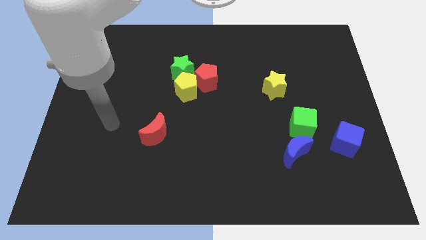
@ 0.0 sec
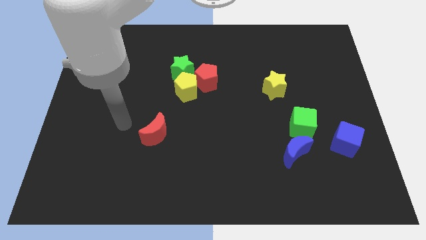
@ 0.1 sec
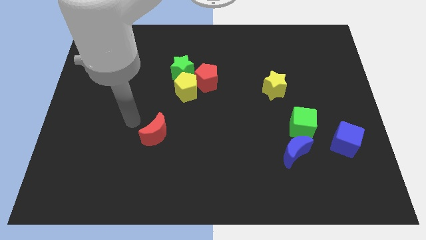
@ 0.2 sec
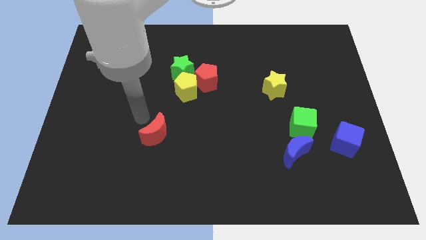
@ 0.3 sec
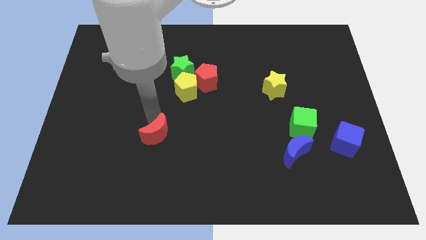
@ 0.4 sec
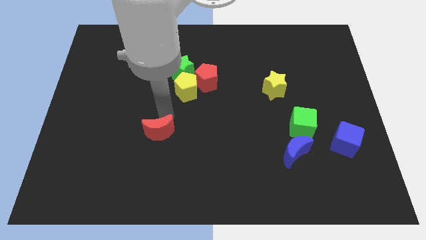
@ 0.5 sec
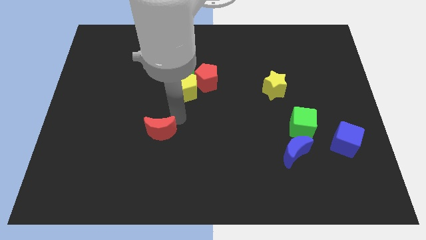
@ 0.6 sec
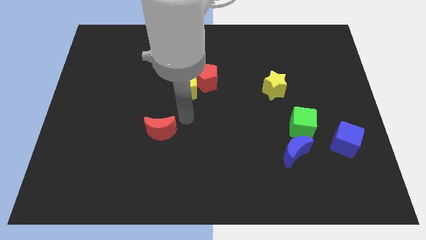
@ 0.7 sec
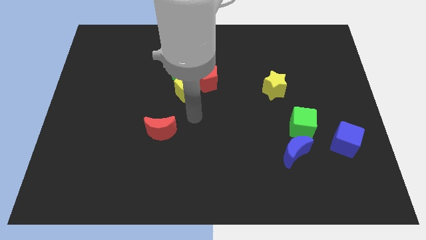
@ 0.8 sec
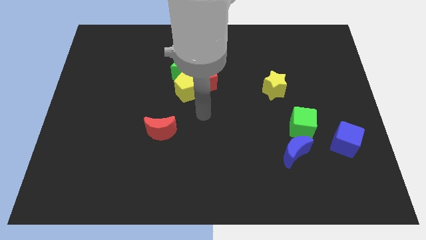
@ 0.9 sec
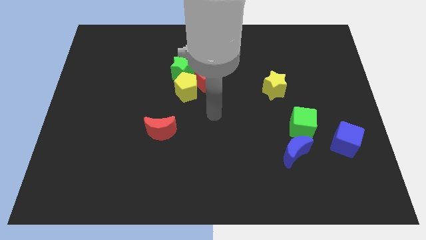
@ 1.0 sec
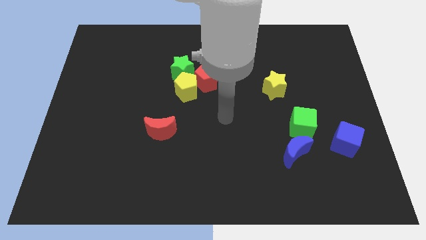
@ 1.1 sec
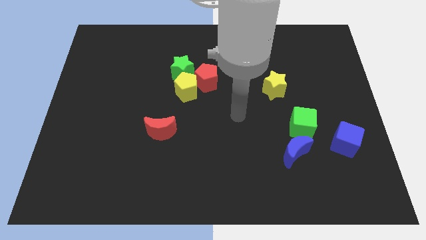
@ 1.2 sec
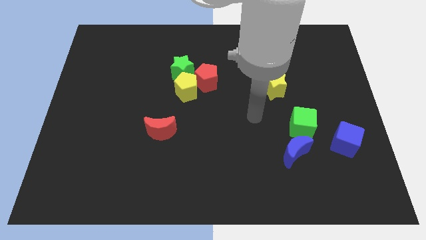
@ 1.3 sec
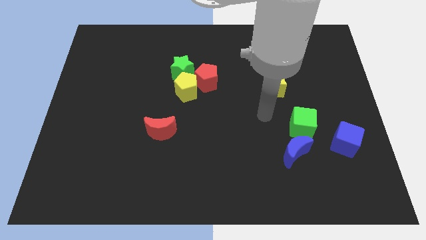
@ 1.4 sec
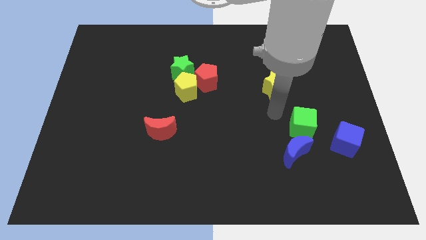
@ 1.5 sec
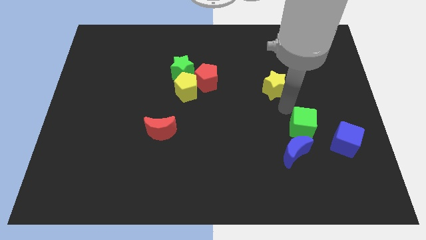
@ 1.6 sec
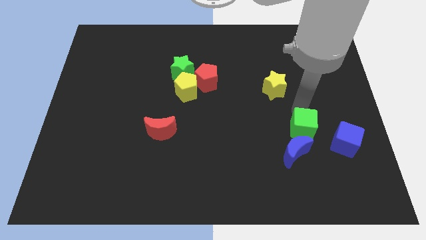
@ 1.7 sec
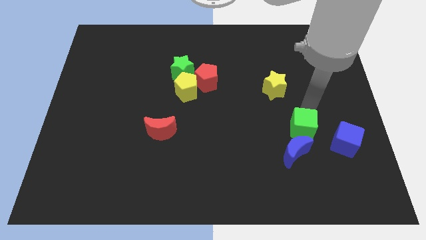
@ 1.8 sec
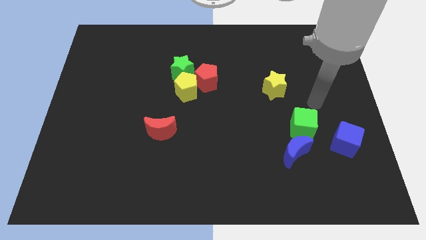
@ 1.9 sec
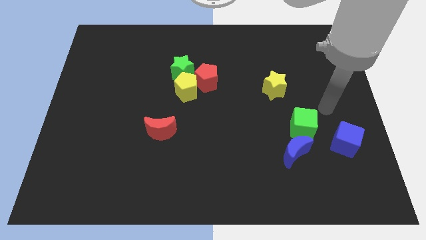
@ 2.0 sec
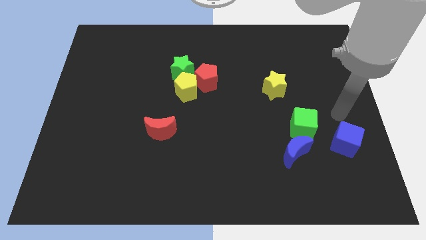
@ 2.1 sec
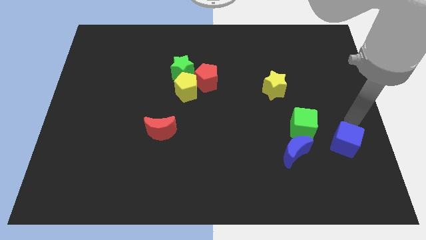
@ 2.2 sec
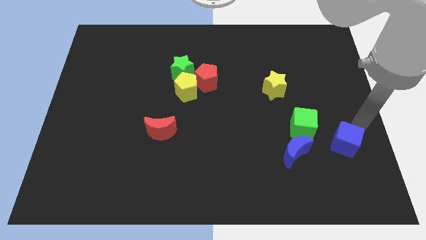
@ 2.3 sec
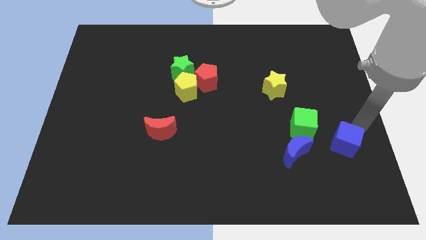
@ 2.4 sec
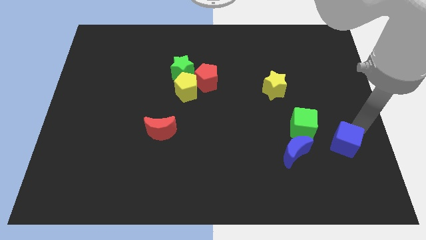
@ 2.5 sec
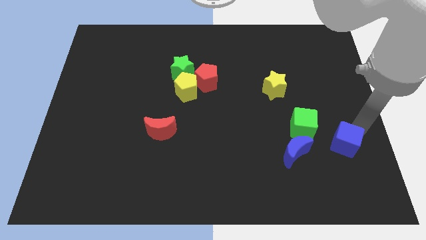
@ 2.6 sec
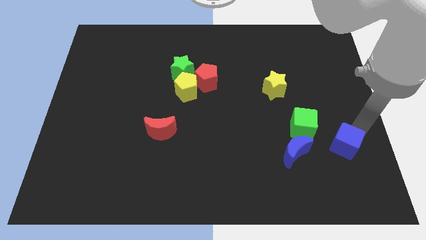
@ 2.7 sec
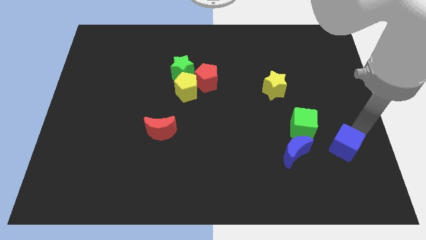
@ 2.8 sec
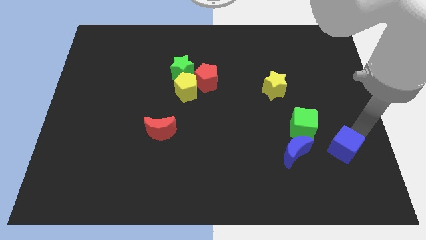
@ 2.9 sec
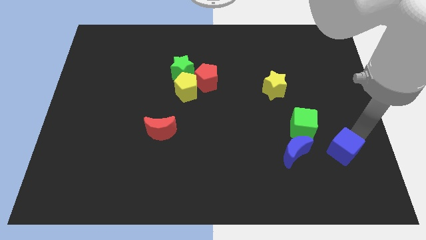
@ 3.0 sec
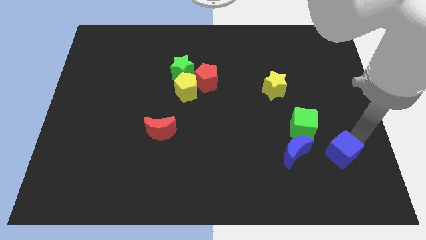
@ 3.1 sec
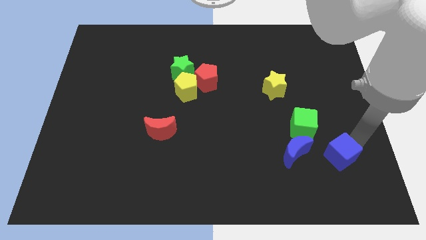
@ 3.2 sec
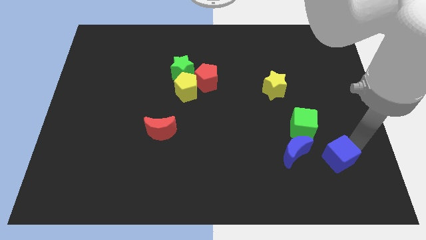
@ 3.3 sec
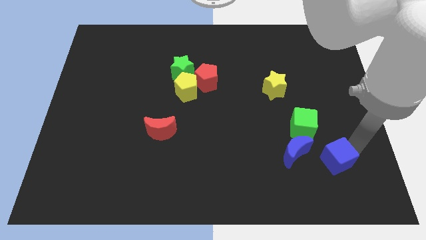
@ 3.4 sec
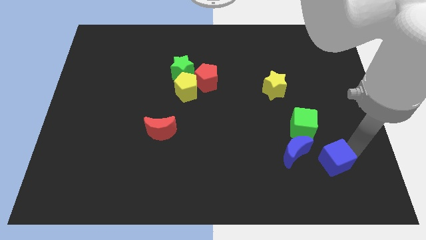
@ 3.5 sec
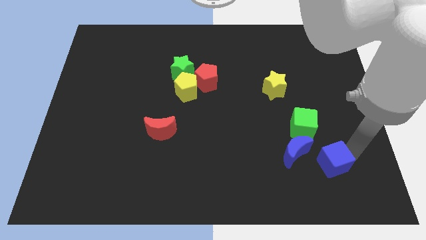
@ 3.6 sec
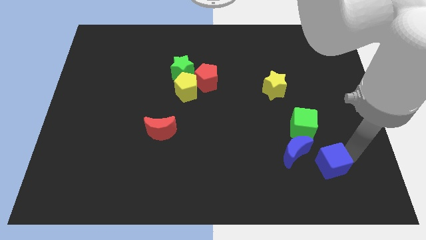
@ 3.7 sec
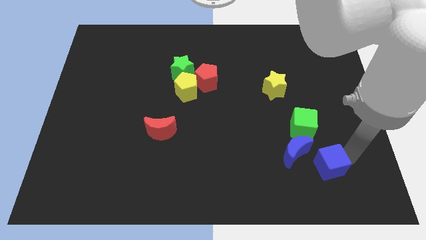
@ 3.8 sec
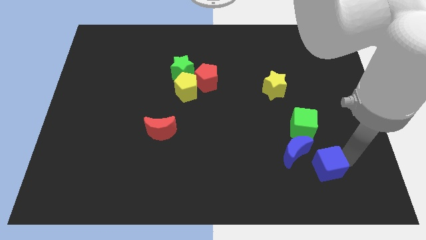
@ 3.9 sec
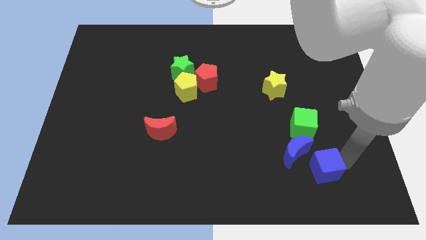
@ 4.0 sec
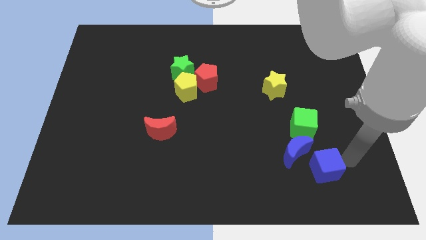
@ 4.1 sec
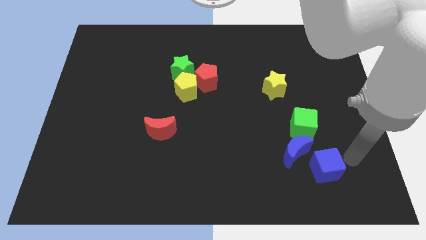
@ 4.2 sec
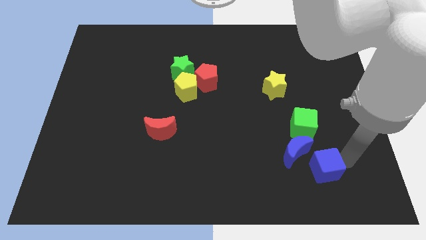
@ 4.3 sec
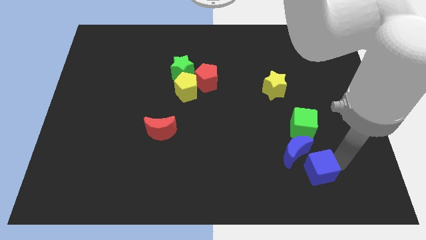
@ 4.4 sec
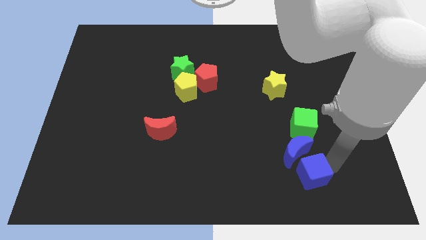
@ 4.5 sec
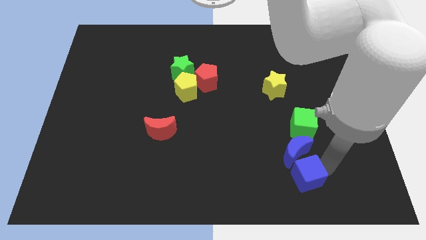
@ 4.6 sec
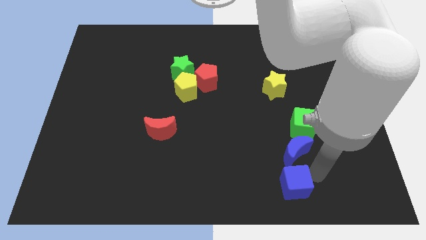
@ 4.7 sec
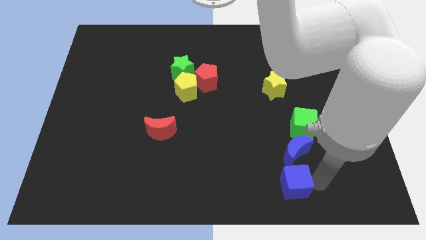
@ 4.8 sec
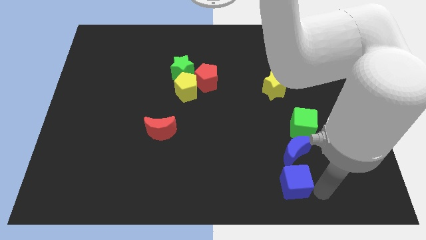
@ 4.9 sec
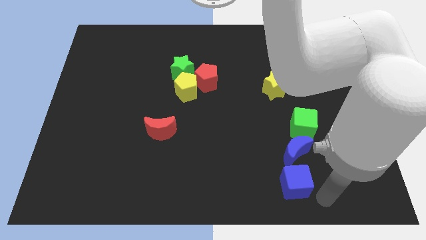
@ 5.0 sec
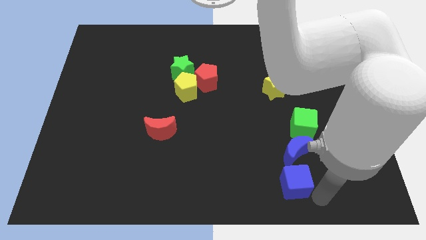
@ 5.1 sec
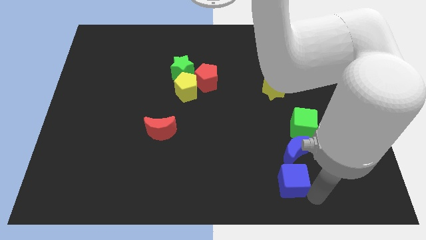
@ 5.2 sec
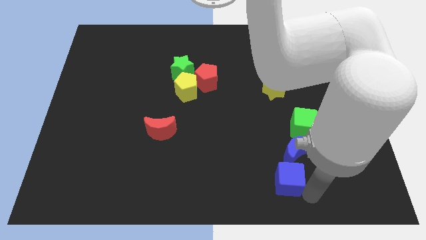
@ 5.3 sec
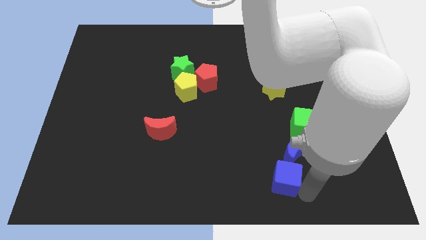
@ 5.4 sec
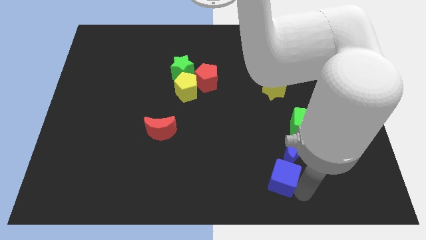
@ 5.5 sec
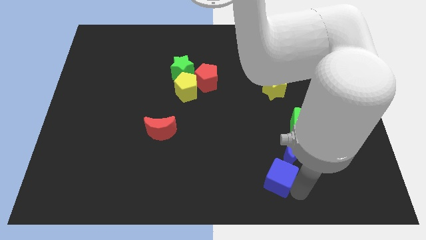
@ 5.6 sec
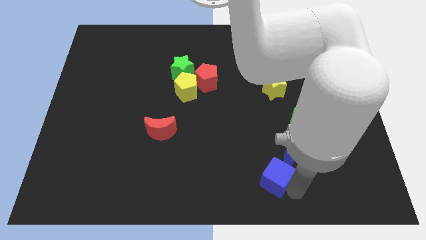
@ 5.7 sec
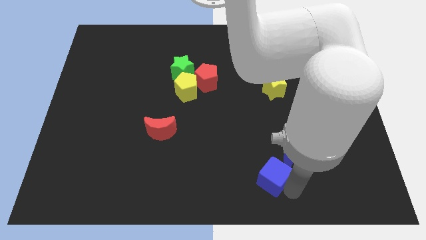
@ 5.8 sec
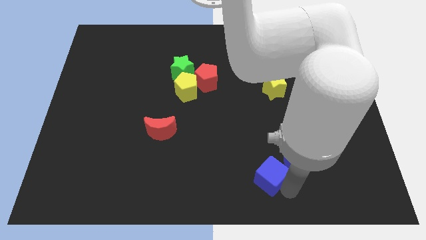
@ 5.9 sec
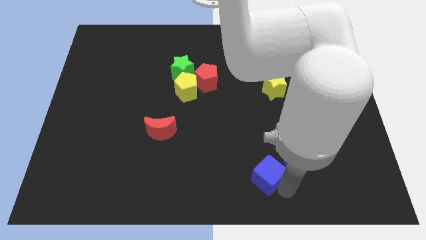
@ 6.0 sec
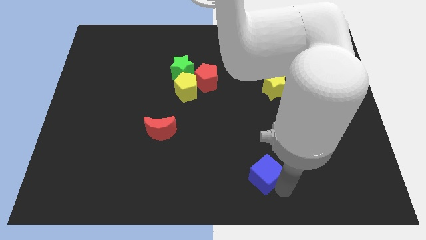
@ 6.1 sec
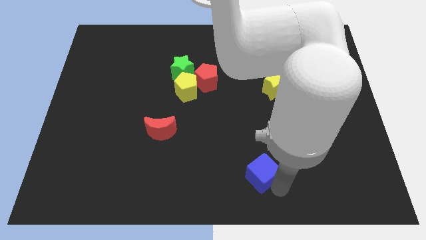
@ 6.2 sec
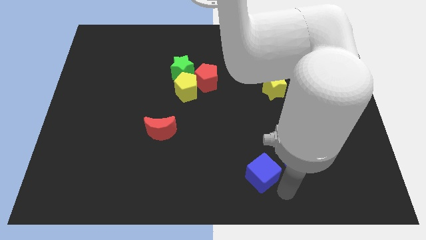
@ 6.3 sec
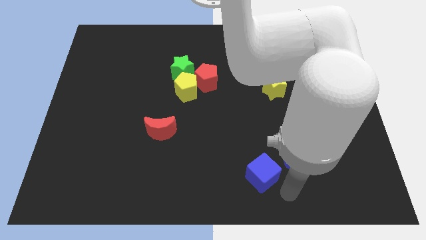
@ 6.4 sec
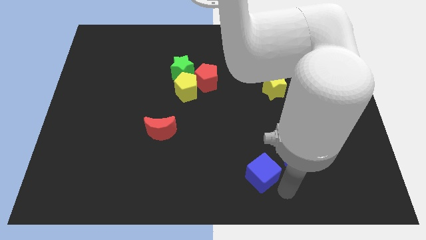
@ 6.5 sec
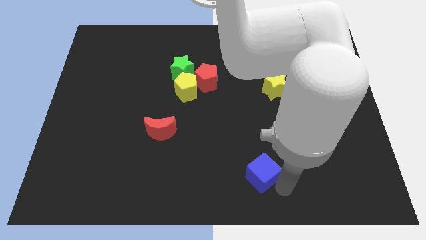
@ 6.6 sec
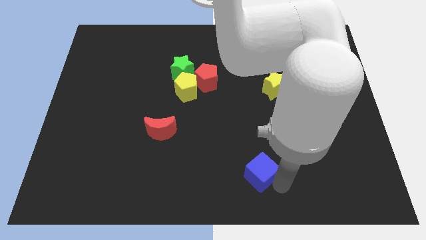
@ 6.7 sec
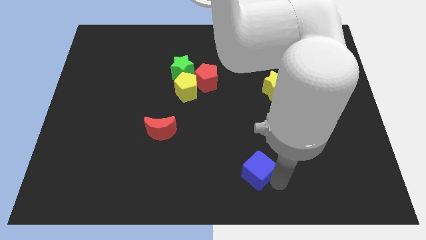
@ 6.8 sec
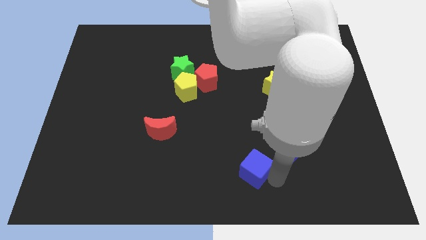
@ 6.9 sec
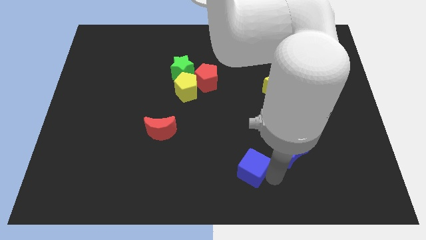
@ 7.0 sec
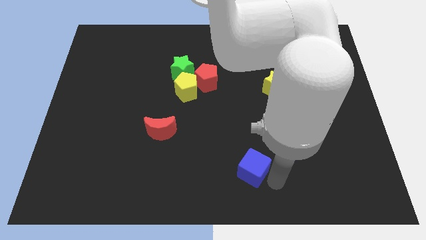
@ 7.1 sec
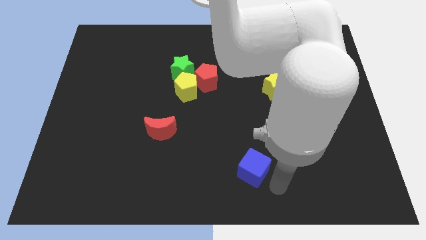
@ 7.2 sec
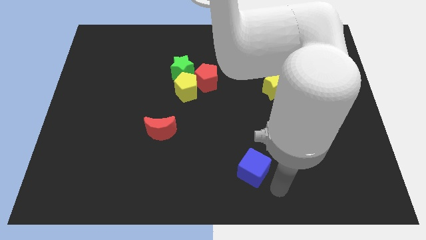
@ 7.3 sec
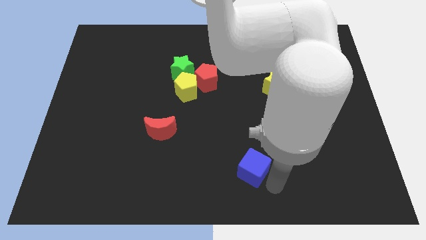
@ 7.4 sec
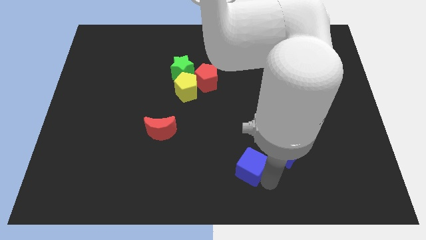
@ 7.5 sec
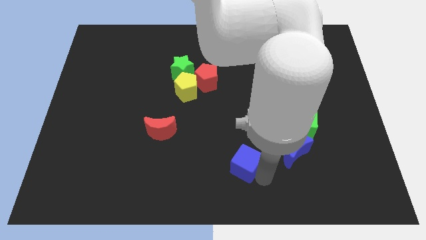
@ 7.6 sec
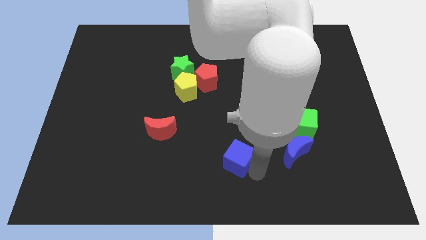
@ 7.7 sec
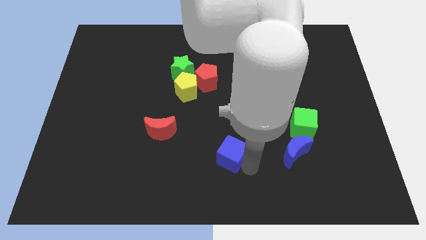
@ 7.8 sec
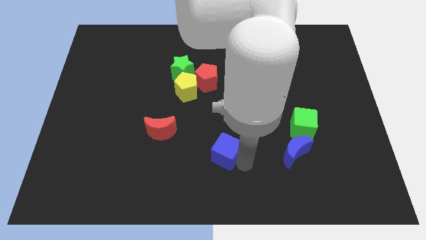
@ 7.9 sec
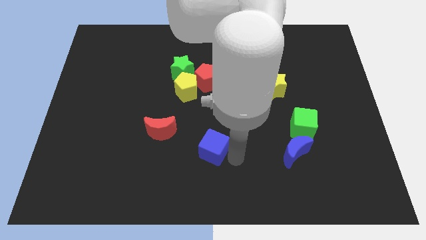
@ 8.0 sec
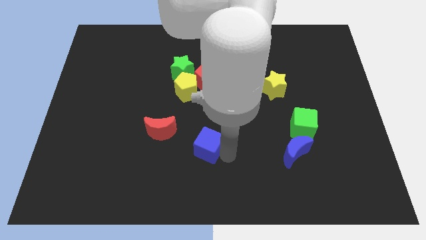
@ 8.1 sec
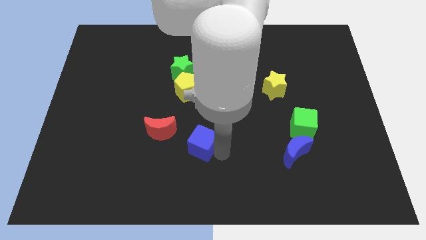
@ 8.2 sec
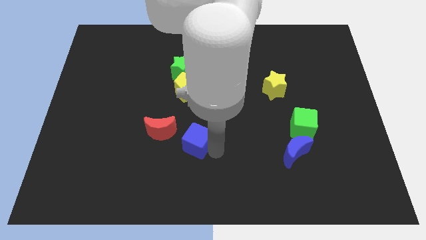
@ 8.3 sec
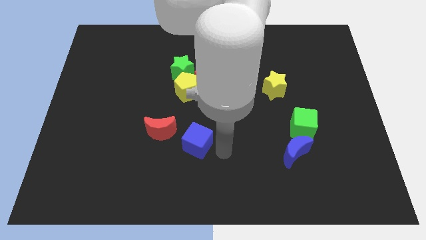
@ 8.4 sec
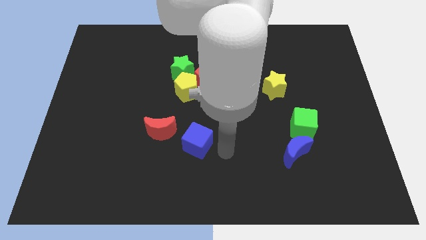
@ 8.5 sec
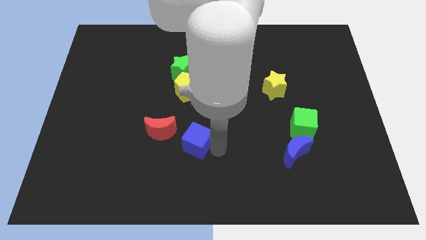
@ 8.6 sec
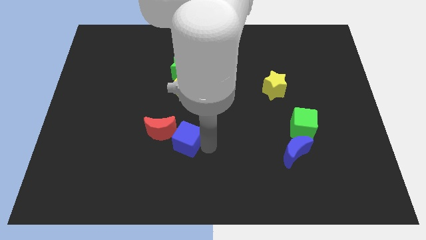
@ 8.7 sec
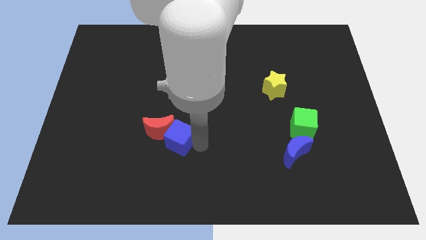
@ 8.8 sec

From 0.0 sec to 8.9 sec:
put the blue cube next to the red moon
